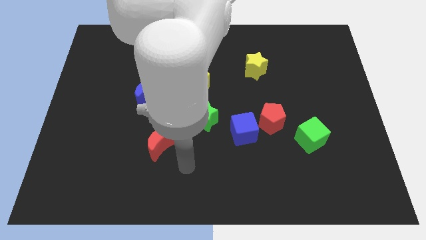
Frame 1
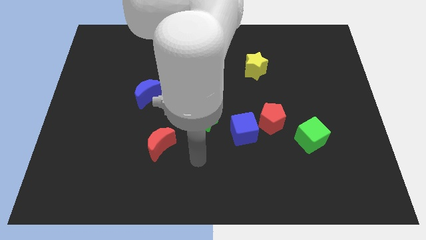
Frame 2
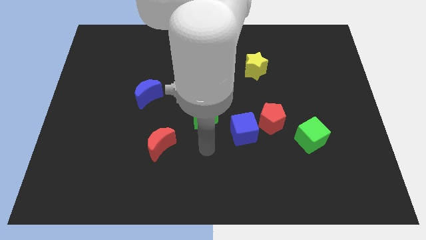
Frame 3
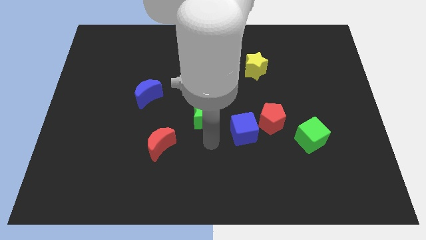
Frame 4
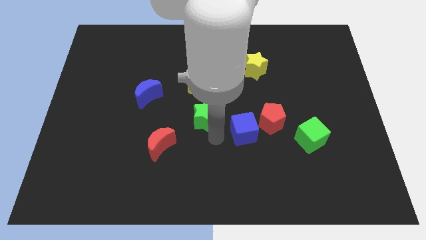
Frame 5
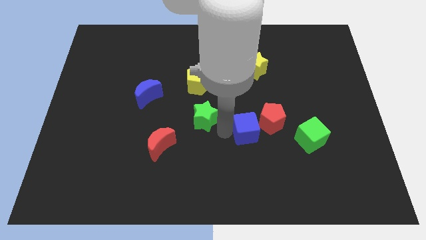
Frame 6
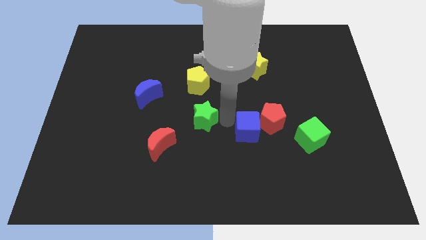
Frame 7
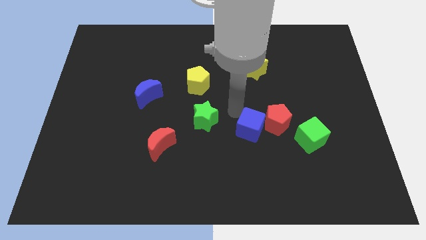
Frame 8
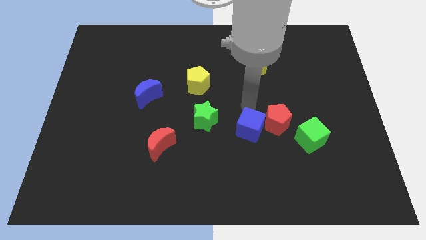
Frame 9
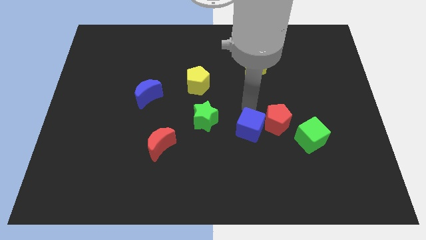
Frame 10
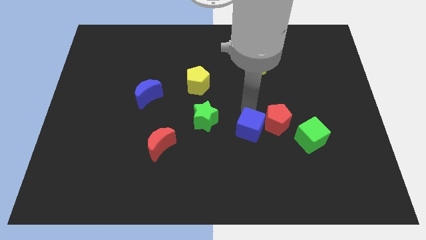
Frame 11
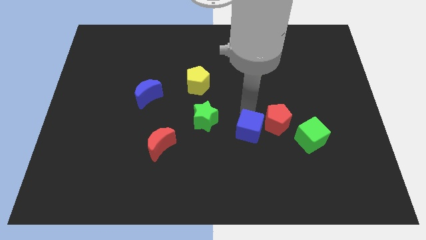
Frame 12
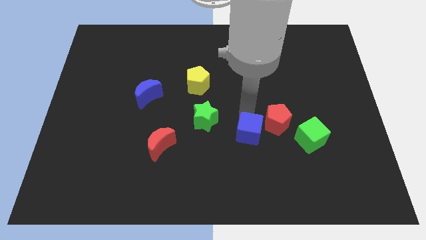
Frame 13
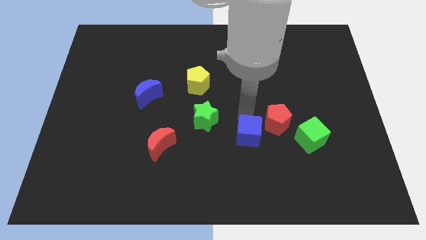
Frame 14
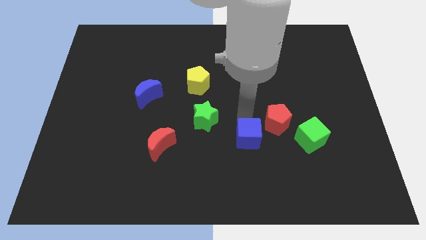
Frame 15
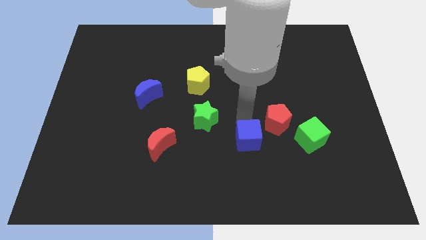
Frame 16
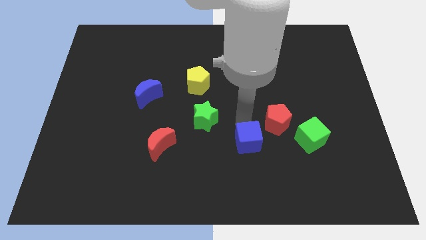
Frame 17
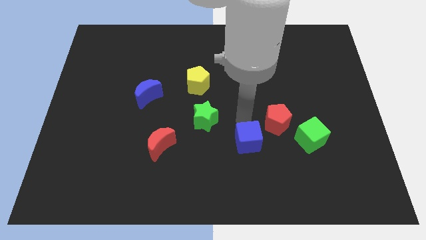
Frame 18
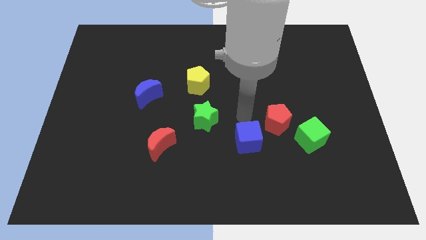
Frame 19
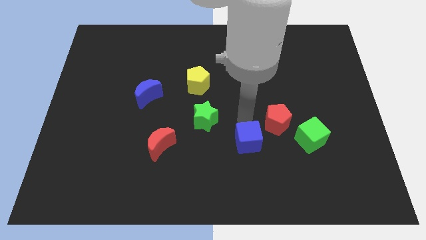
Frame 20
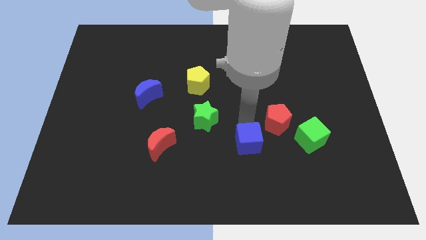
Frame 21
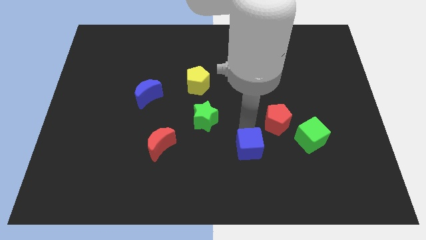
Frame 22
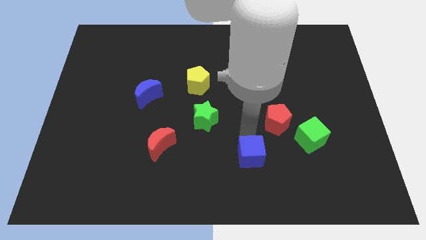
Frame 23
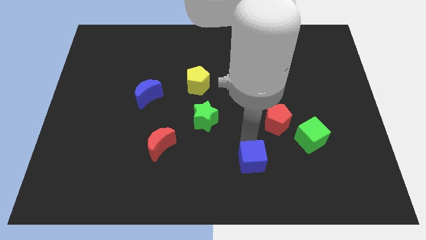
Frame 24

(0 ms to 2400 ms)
separate the blue cube from the red pentagon and green star

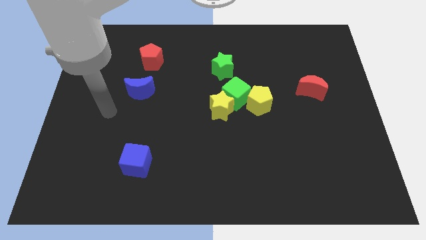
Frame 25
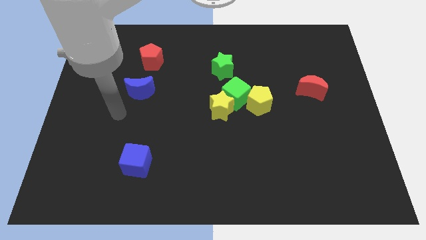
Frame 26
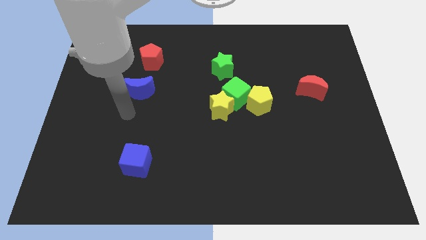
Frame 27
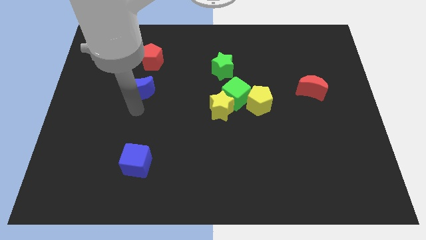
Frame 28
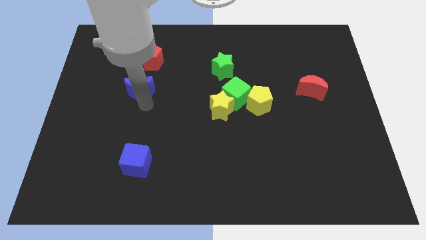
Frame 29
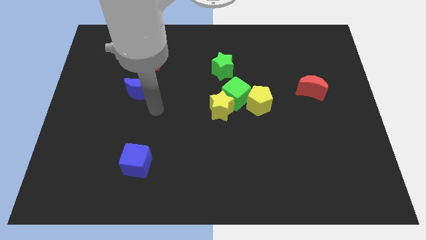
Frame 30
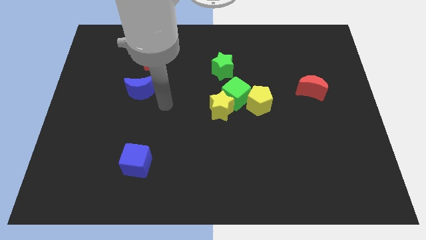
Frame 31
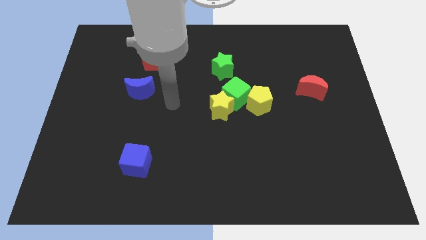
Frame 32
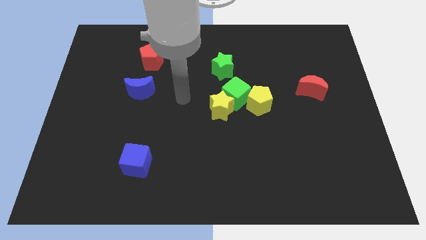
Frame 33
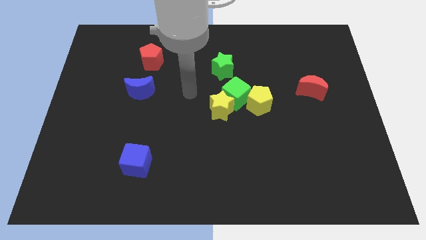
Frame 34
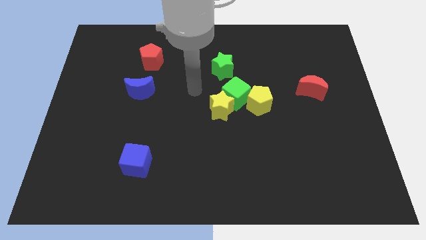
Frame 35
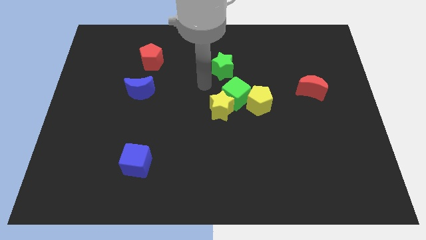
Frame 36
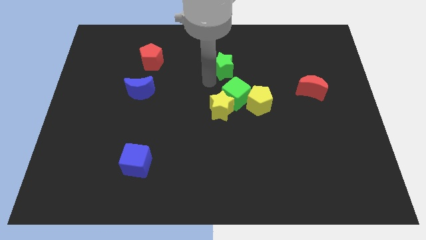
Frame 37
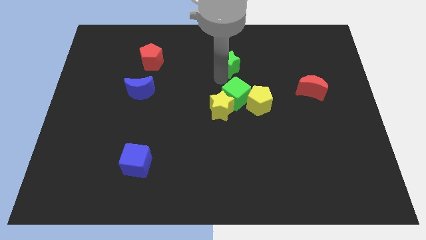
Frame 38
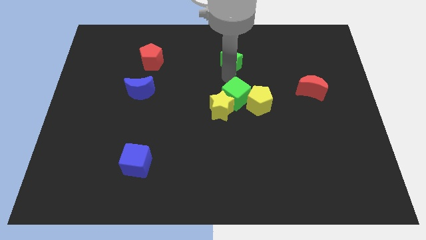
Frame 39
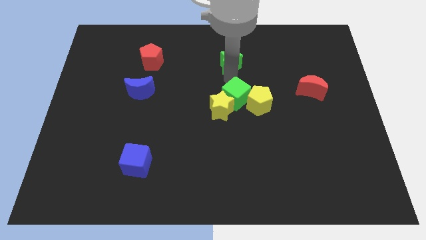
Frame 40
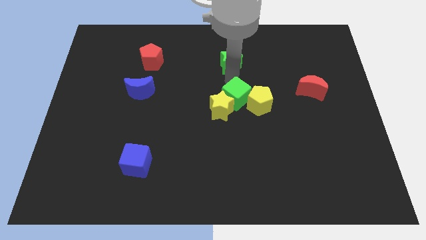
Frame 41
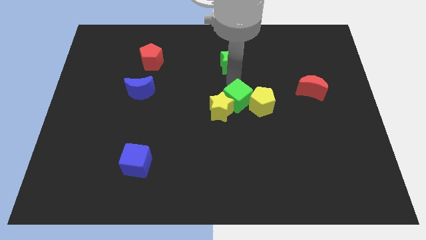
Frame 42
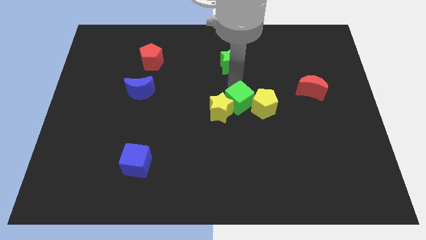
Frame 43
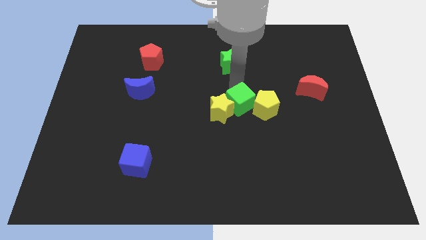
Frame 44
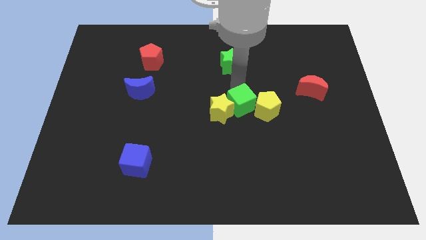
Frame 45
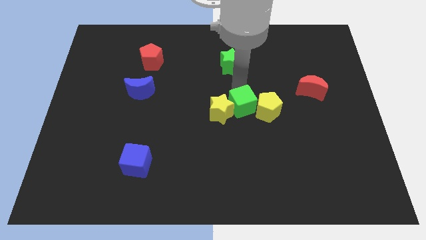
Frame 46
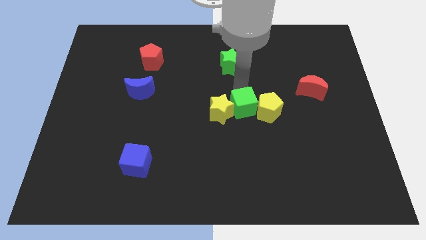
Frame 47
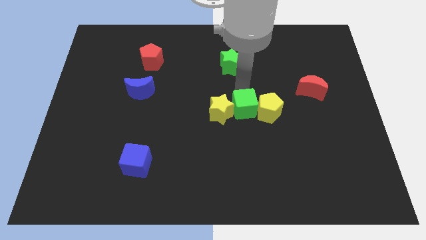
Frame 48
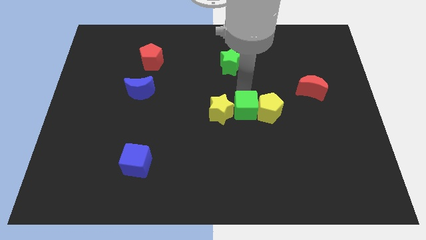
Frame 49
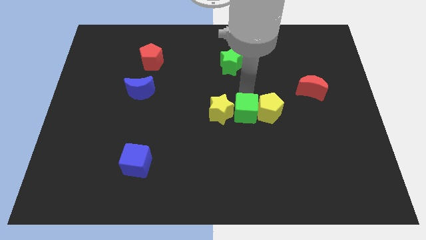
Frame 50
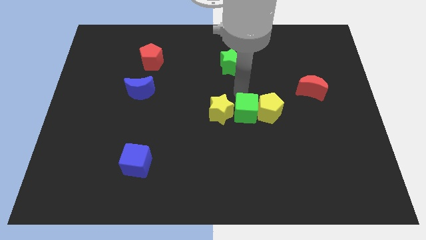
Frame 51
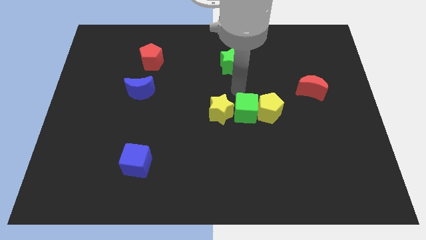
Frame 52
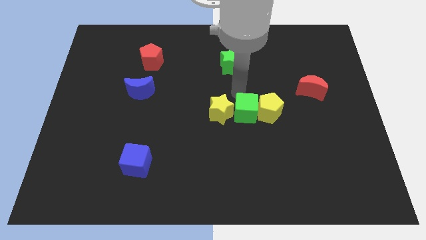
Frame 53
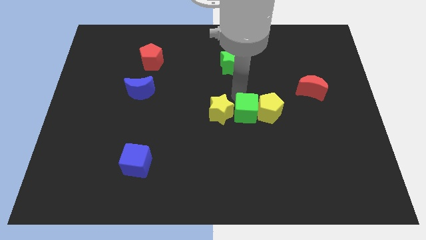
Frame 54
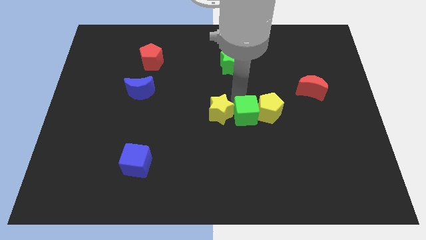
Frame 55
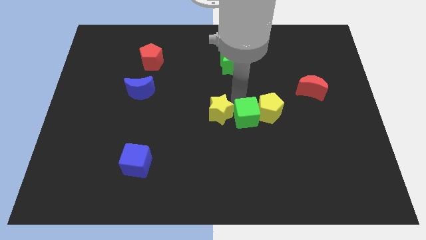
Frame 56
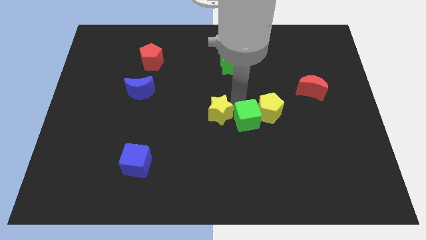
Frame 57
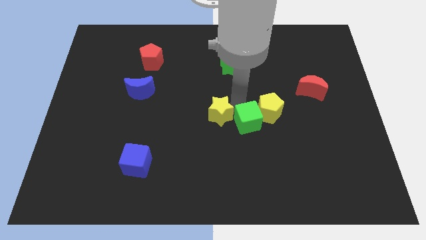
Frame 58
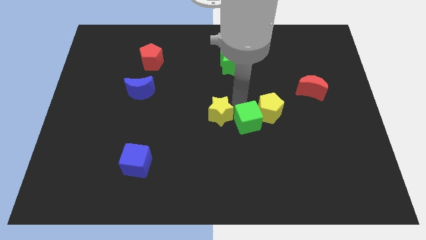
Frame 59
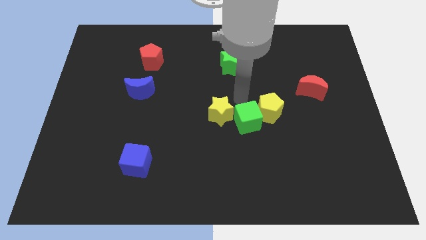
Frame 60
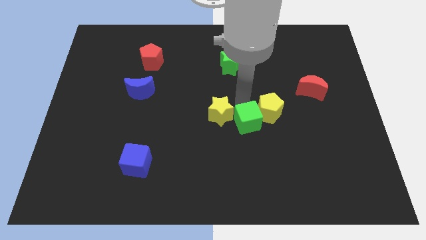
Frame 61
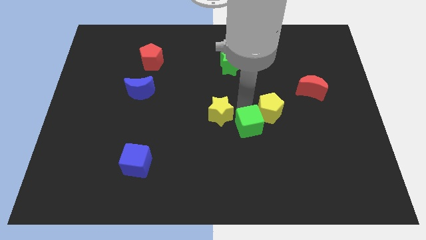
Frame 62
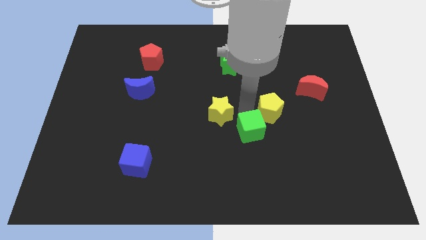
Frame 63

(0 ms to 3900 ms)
pull the green cube apart from the group

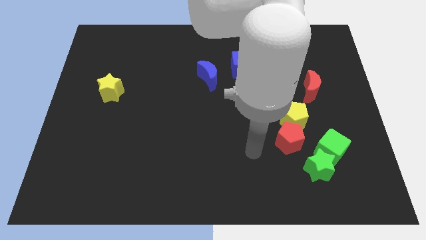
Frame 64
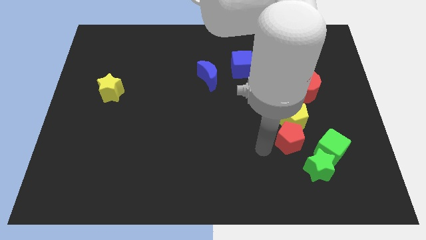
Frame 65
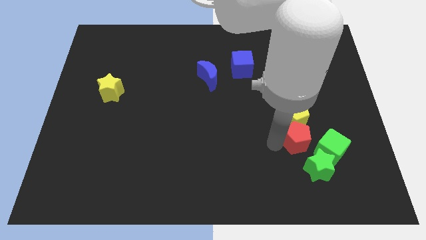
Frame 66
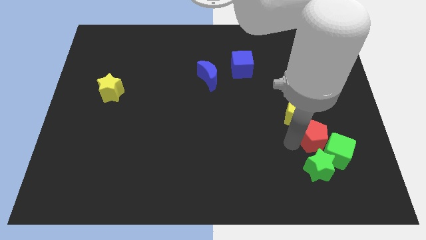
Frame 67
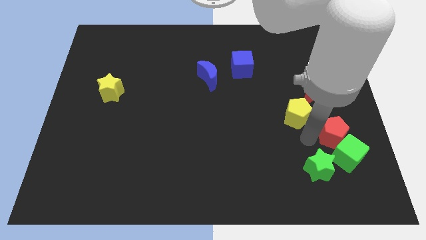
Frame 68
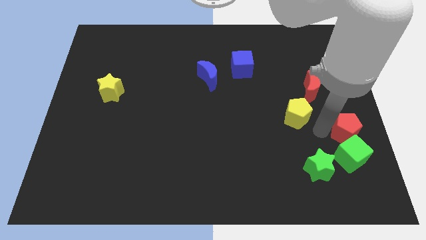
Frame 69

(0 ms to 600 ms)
move the yellow pentagon away from the red pentagon

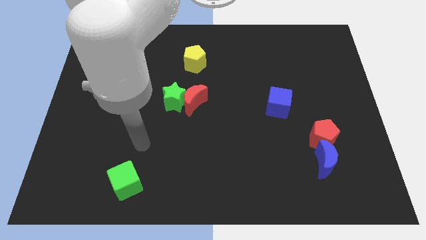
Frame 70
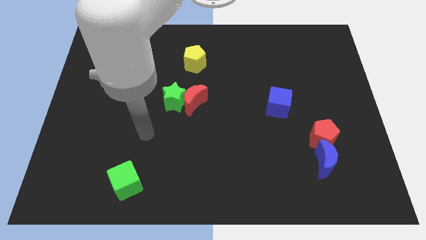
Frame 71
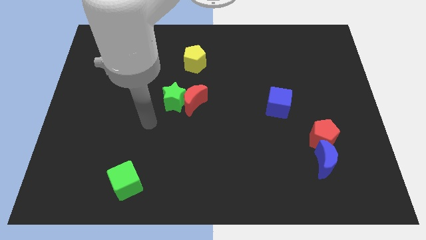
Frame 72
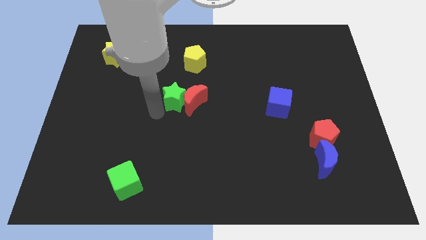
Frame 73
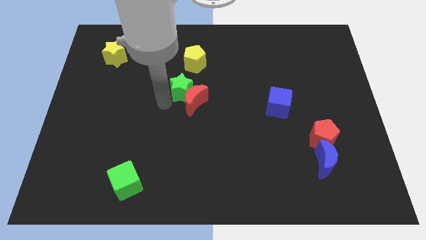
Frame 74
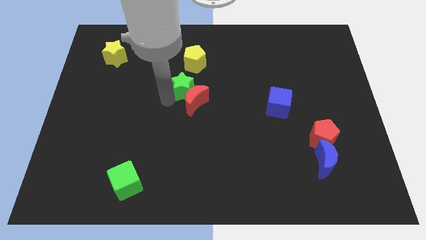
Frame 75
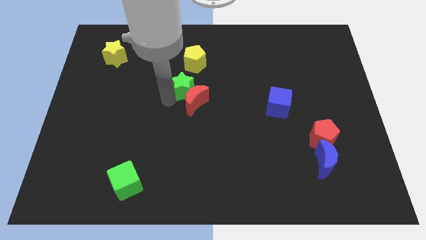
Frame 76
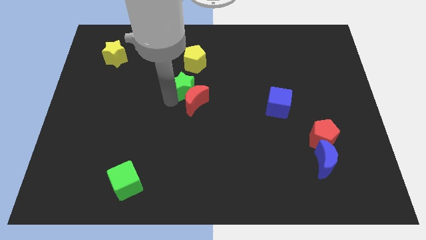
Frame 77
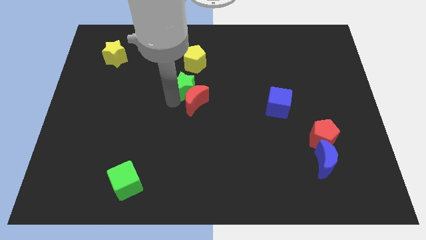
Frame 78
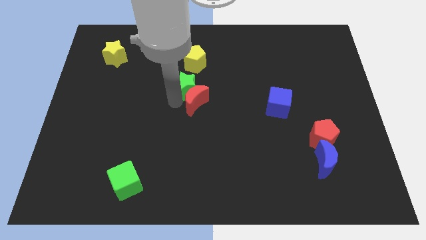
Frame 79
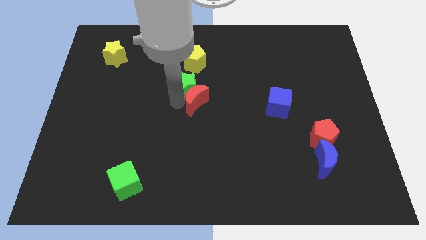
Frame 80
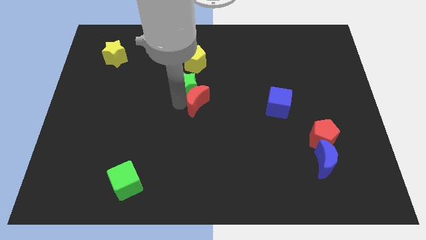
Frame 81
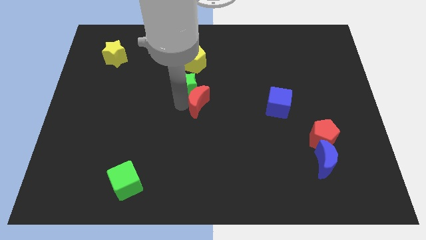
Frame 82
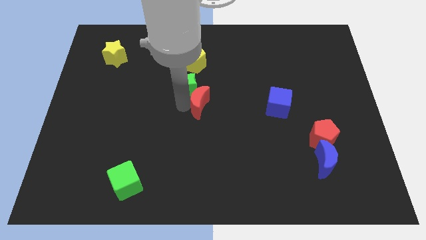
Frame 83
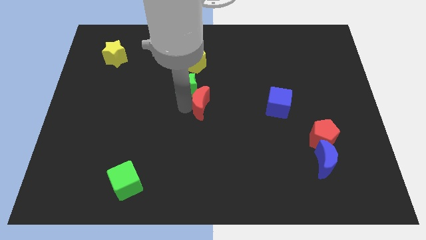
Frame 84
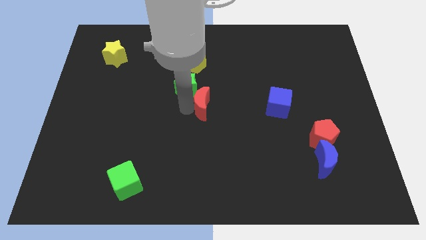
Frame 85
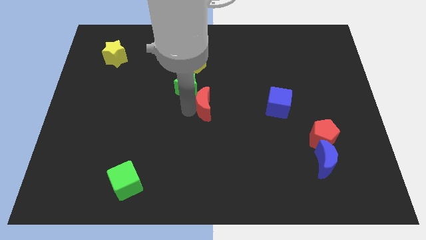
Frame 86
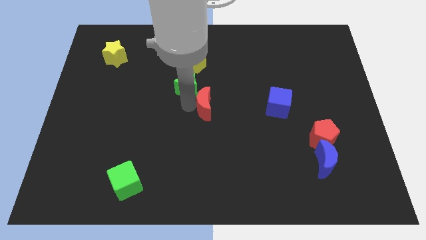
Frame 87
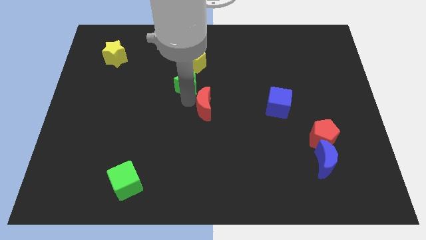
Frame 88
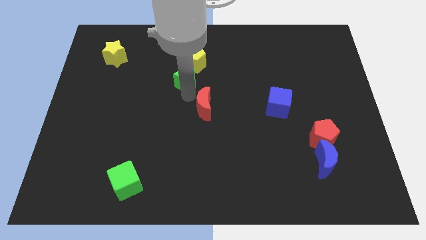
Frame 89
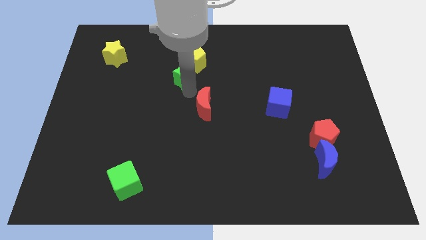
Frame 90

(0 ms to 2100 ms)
move the red moon away from the green star

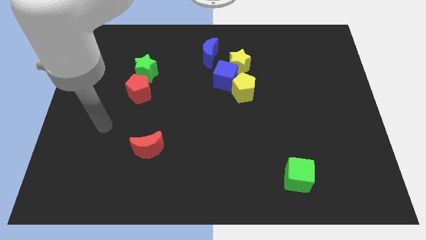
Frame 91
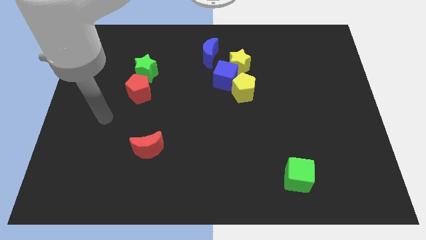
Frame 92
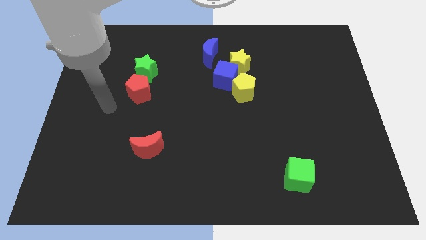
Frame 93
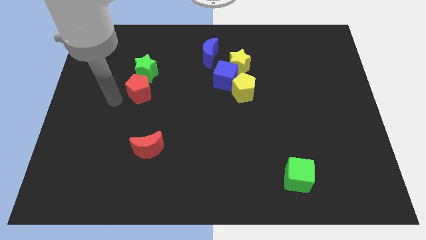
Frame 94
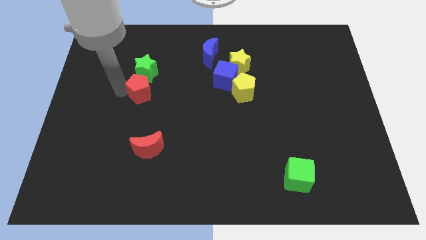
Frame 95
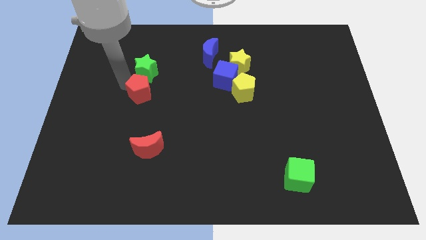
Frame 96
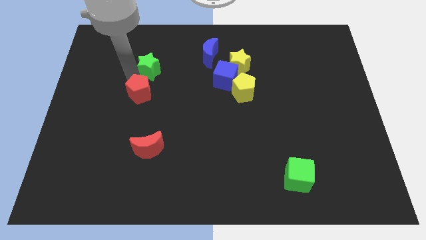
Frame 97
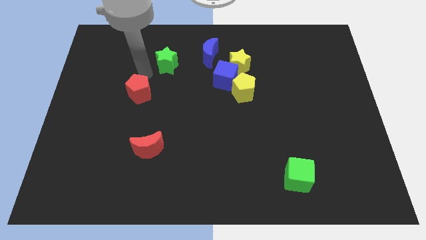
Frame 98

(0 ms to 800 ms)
separate the red pentagon from the green star
